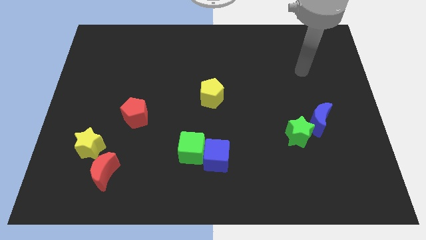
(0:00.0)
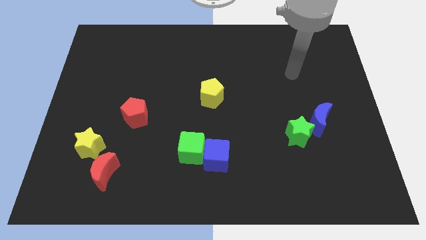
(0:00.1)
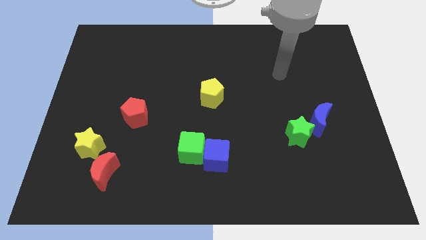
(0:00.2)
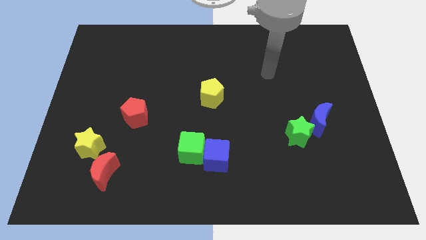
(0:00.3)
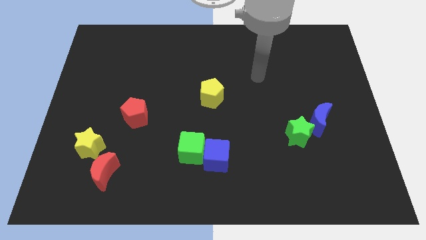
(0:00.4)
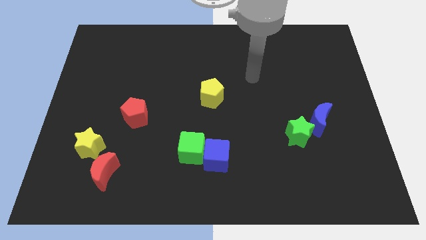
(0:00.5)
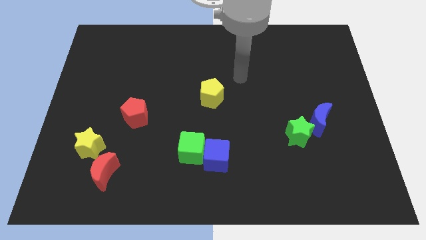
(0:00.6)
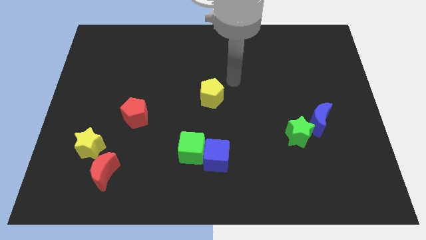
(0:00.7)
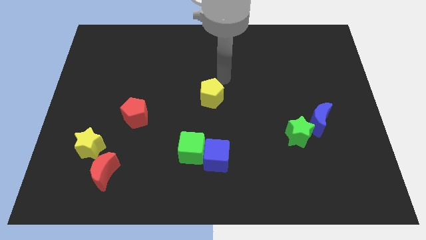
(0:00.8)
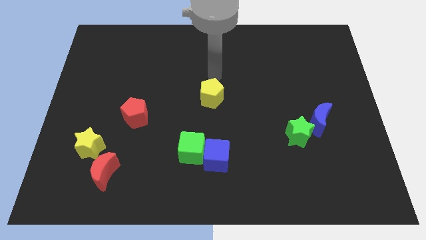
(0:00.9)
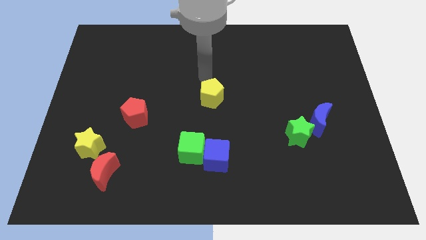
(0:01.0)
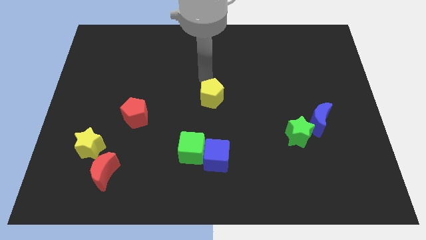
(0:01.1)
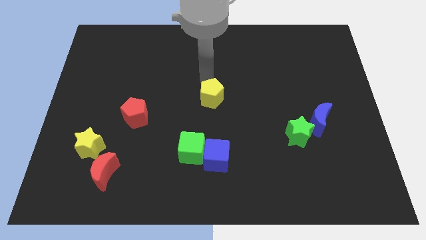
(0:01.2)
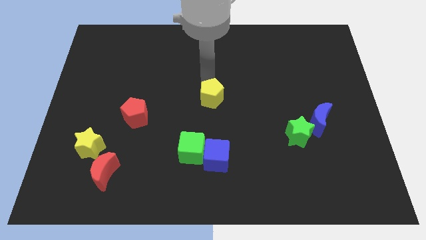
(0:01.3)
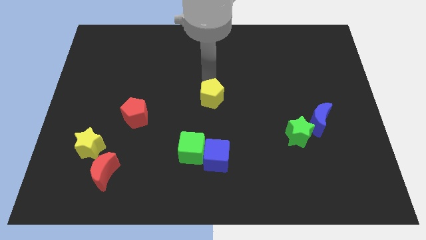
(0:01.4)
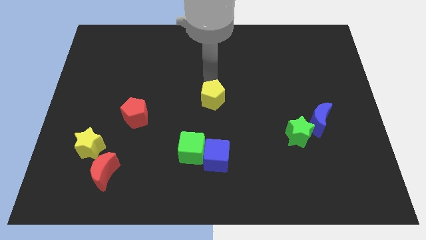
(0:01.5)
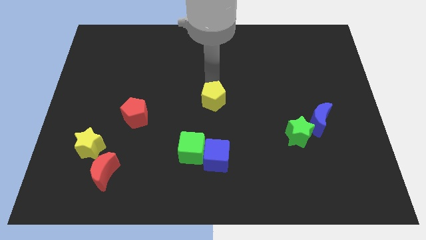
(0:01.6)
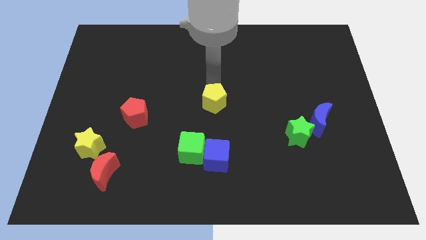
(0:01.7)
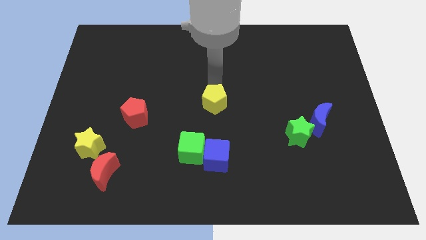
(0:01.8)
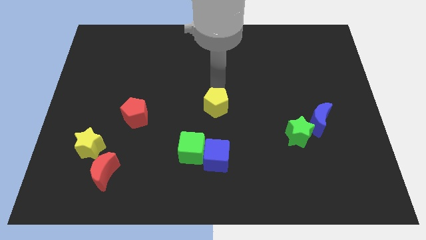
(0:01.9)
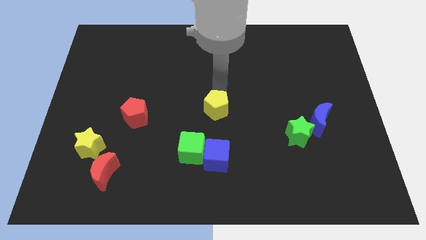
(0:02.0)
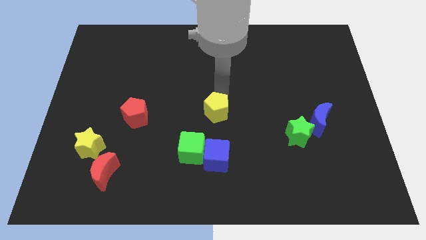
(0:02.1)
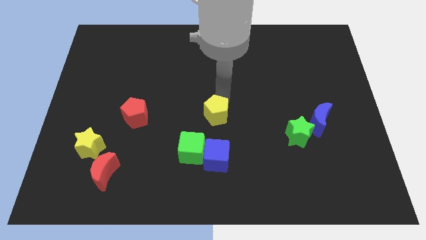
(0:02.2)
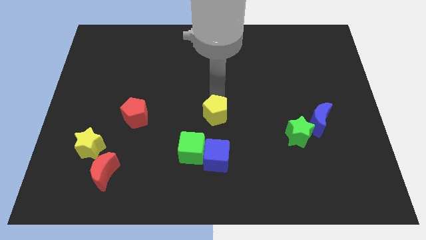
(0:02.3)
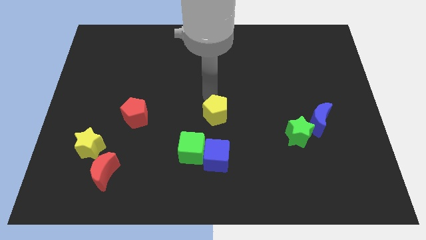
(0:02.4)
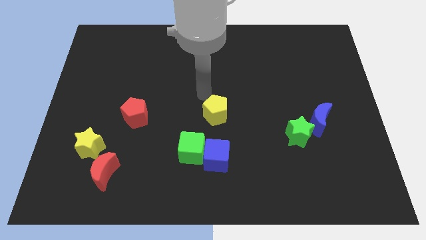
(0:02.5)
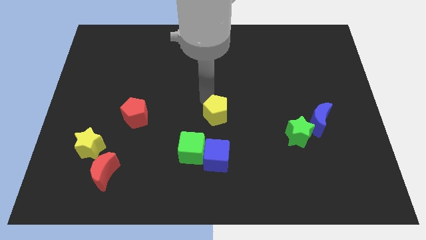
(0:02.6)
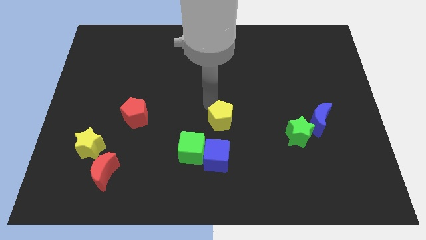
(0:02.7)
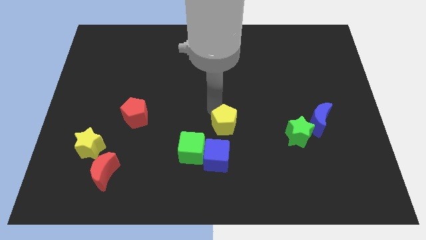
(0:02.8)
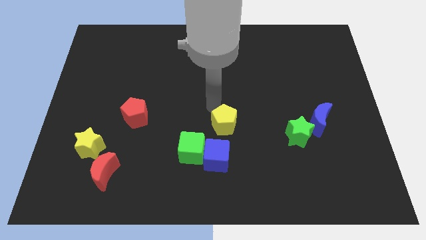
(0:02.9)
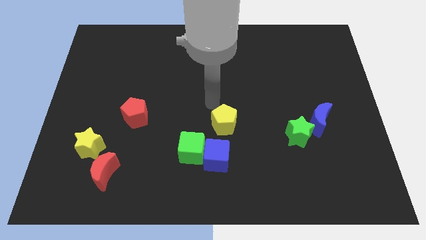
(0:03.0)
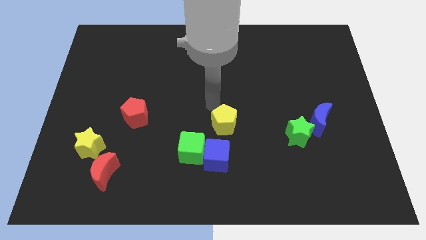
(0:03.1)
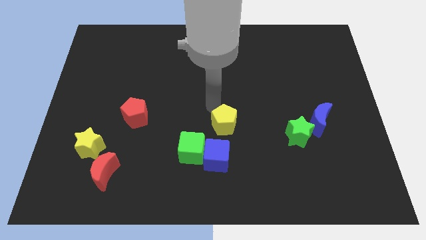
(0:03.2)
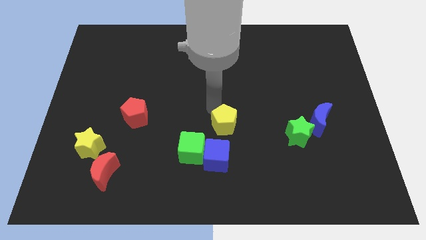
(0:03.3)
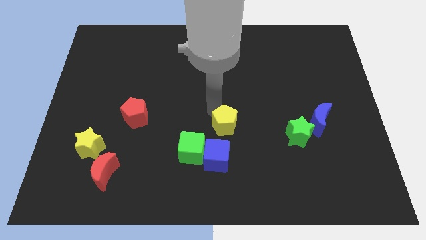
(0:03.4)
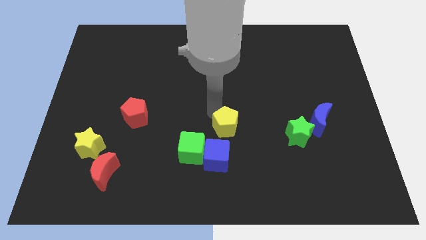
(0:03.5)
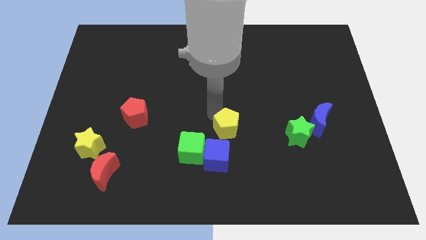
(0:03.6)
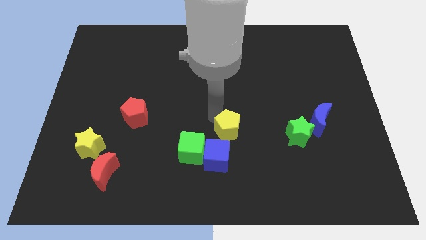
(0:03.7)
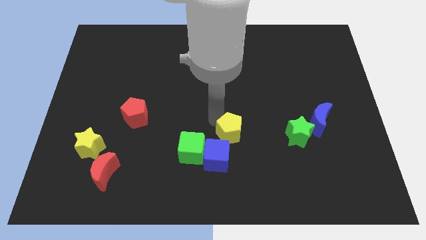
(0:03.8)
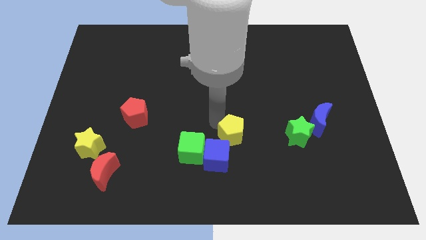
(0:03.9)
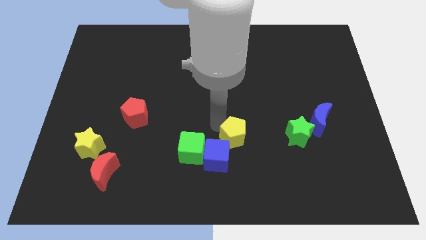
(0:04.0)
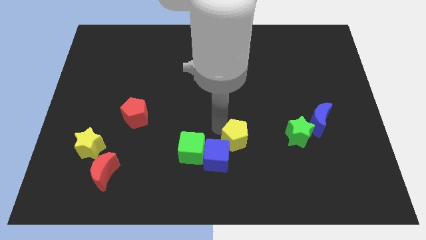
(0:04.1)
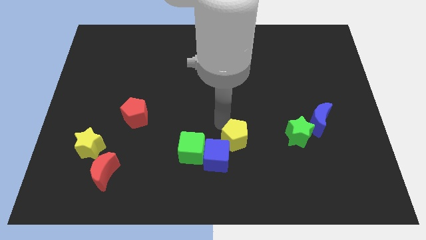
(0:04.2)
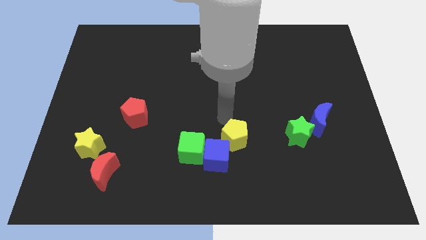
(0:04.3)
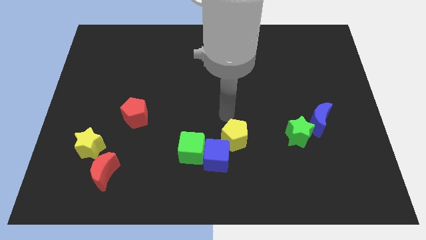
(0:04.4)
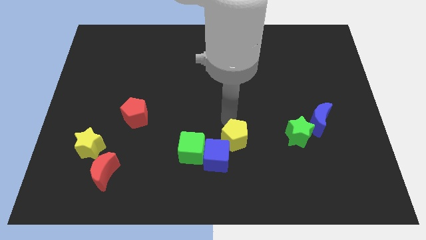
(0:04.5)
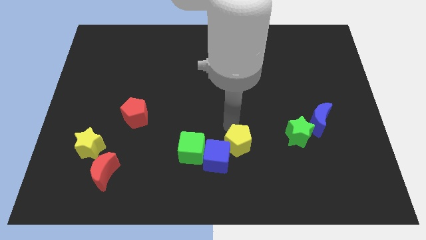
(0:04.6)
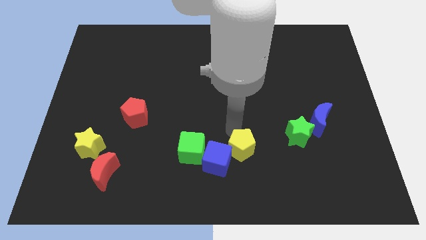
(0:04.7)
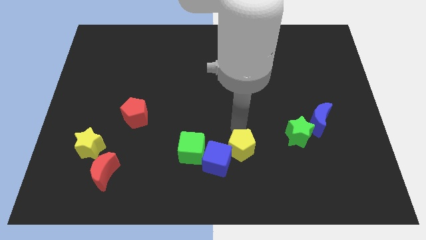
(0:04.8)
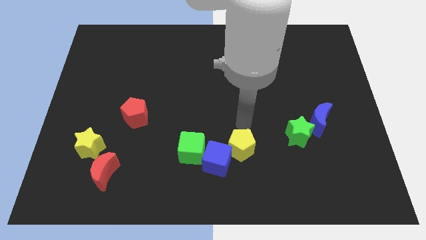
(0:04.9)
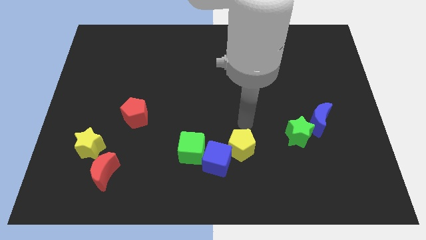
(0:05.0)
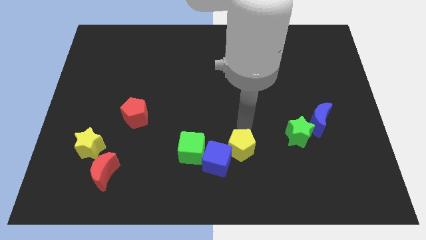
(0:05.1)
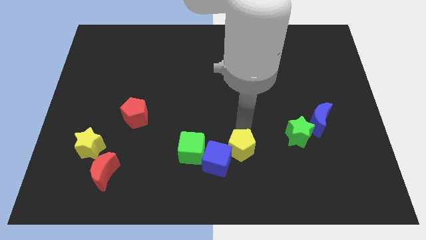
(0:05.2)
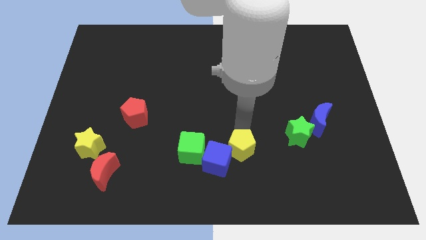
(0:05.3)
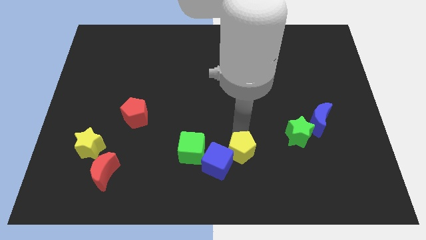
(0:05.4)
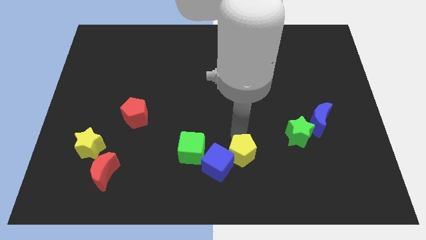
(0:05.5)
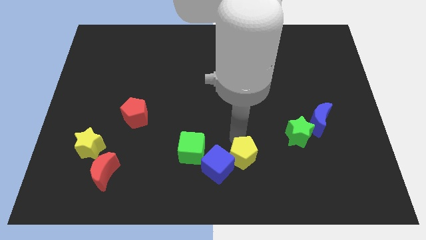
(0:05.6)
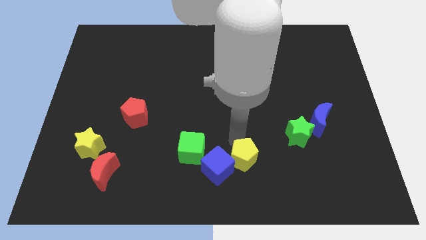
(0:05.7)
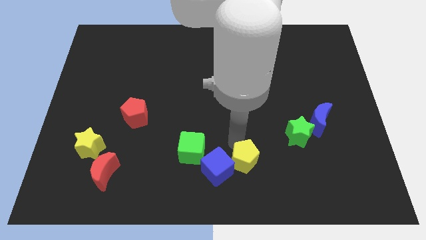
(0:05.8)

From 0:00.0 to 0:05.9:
move the yellow pentagon to the bottom

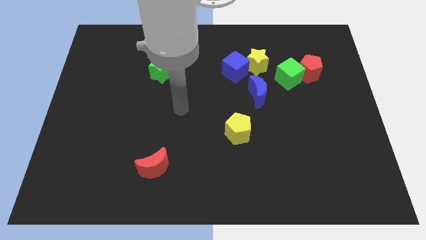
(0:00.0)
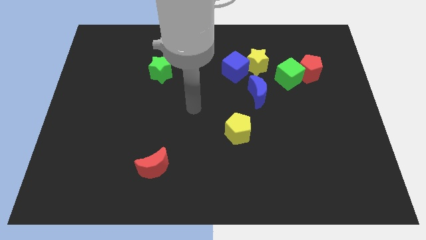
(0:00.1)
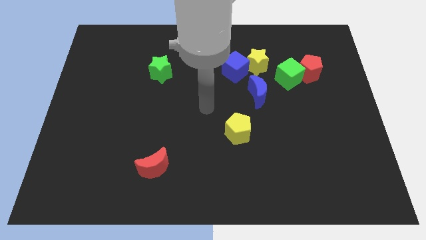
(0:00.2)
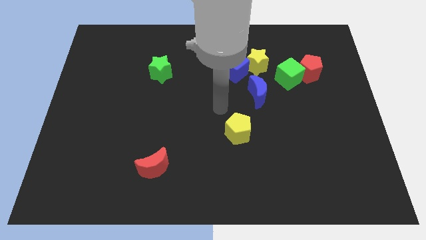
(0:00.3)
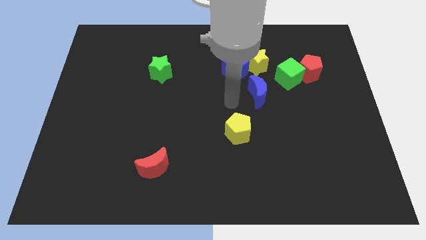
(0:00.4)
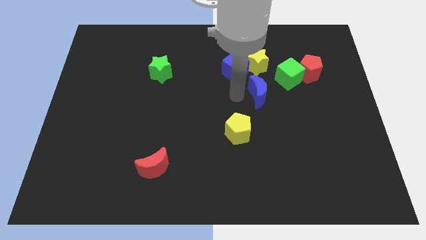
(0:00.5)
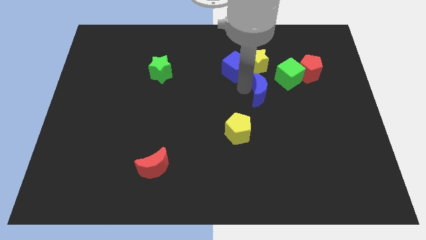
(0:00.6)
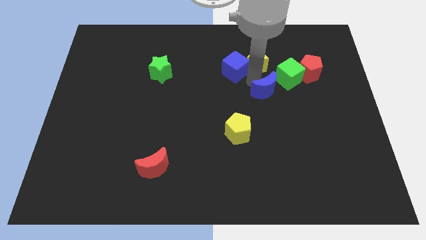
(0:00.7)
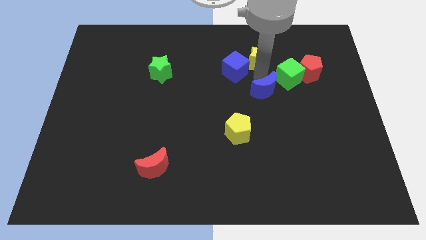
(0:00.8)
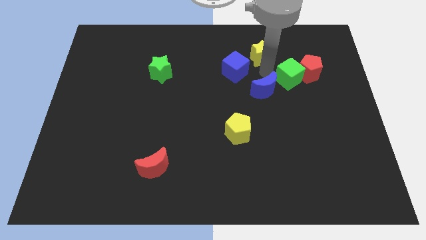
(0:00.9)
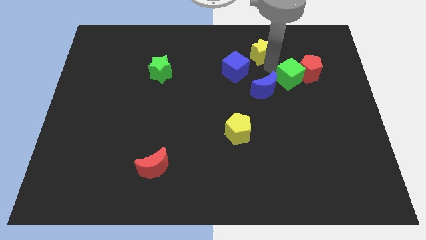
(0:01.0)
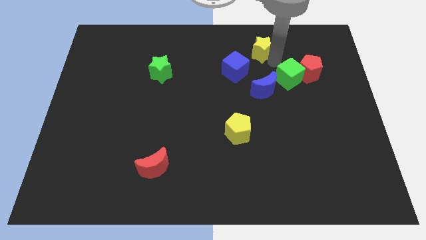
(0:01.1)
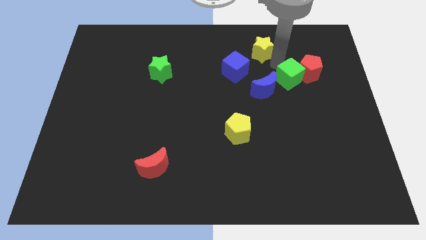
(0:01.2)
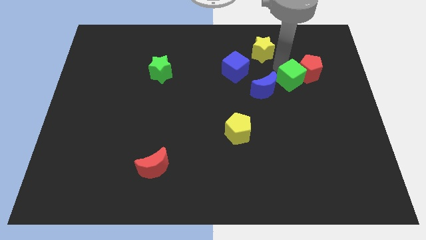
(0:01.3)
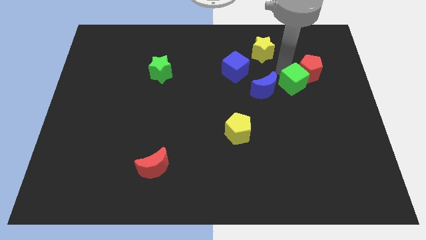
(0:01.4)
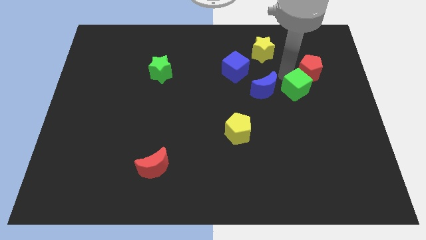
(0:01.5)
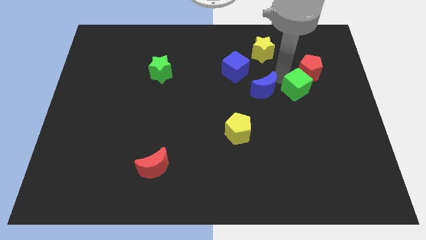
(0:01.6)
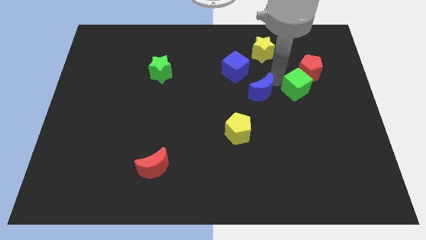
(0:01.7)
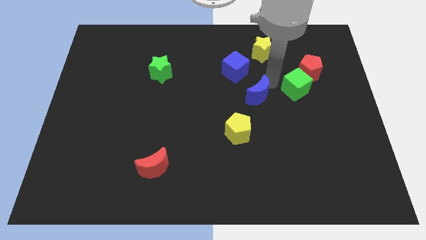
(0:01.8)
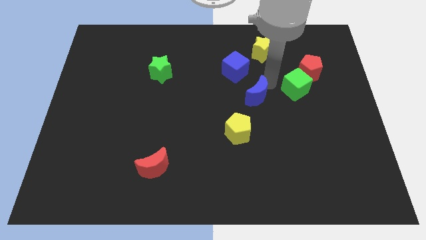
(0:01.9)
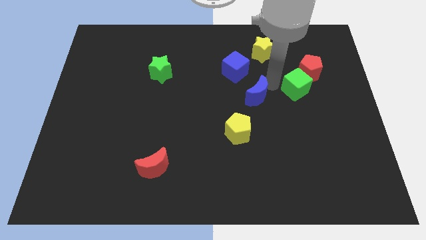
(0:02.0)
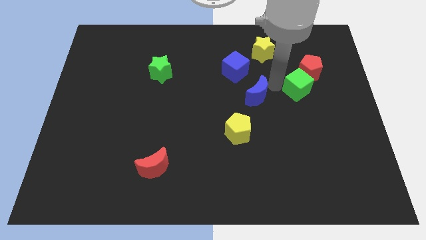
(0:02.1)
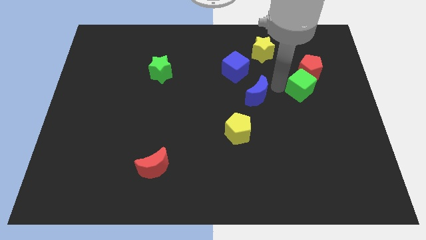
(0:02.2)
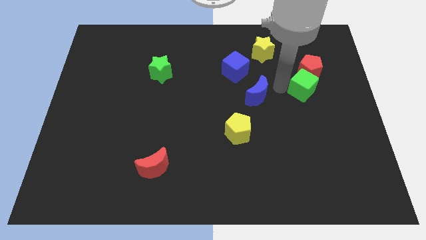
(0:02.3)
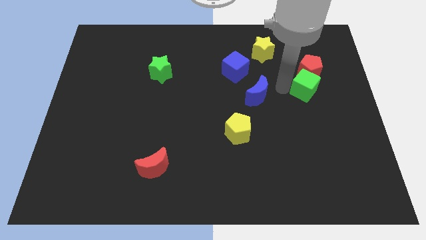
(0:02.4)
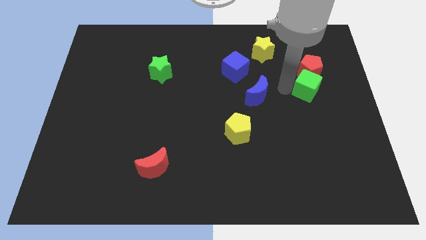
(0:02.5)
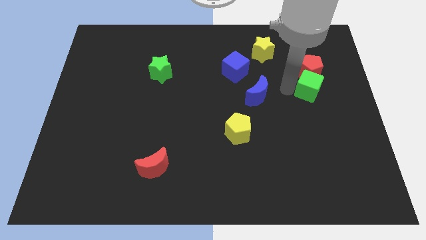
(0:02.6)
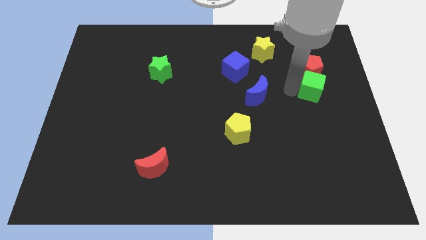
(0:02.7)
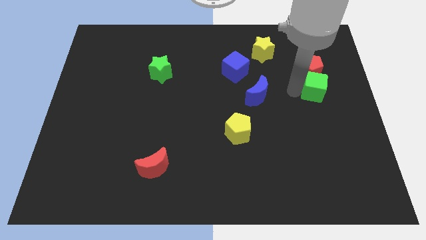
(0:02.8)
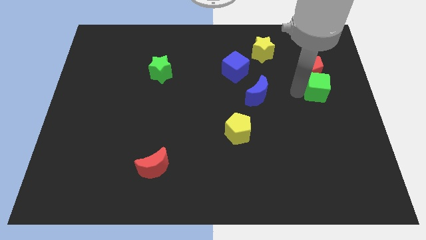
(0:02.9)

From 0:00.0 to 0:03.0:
slide the green cube to the right side of the board
